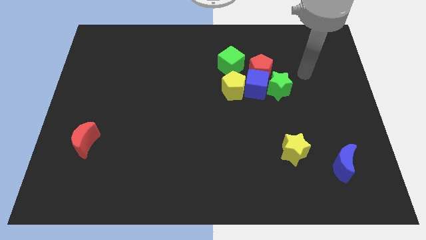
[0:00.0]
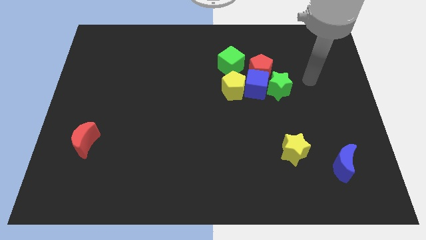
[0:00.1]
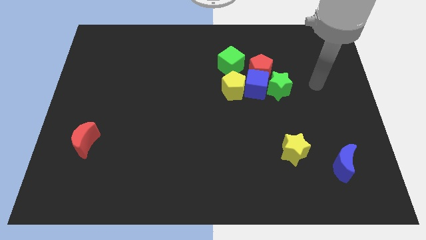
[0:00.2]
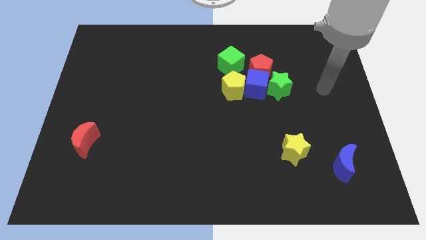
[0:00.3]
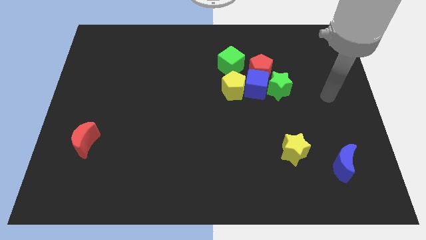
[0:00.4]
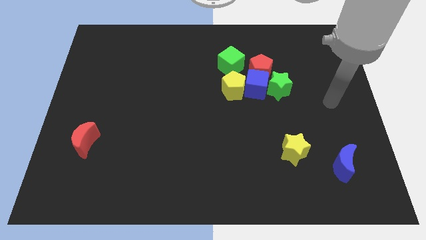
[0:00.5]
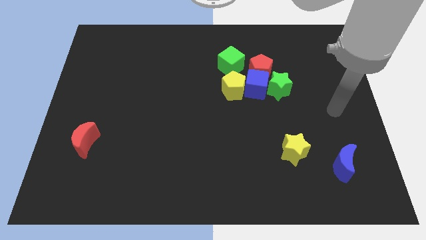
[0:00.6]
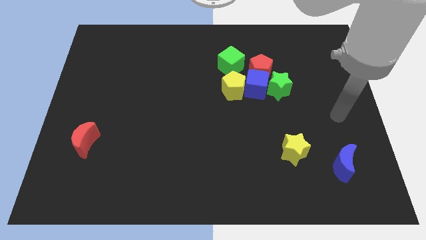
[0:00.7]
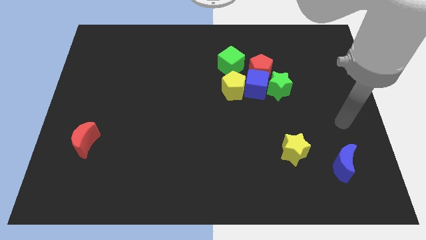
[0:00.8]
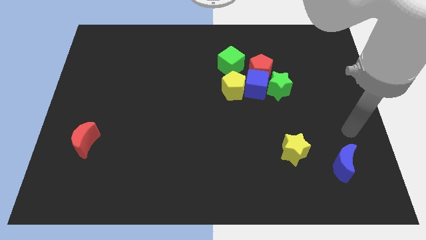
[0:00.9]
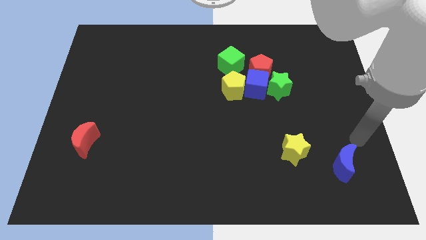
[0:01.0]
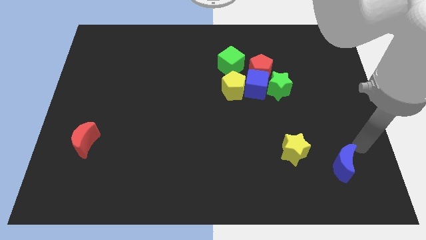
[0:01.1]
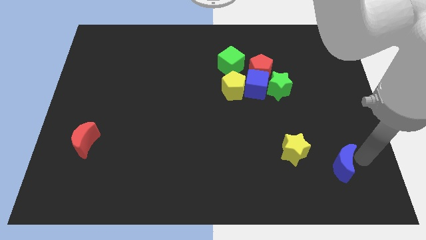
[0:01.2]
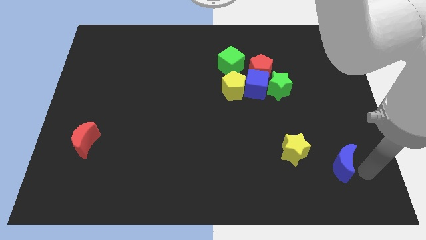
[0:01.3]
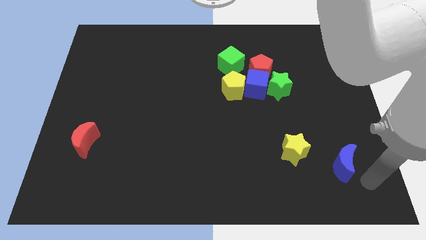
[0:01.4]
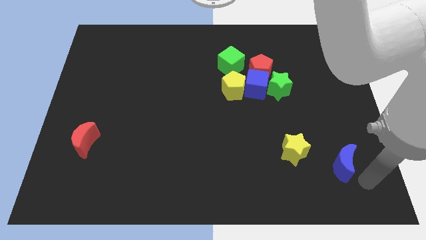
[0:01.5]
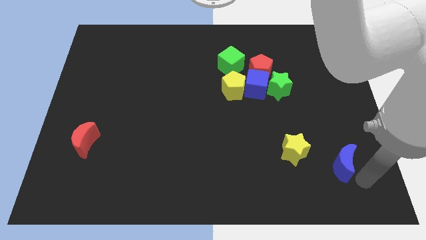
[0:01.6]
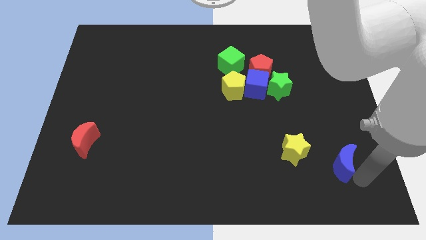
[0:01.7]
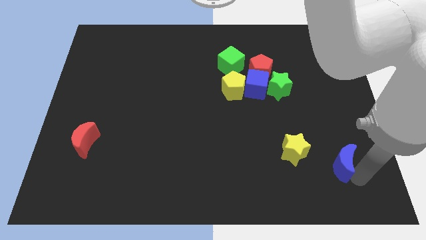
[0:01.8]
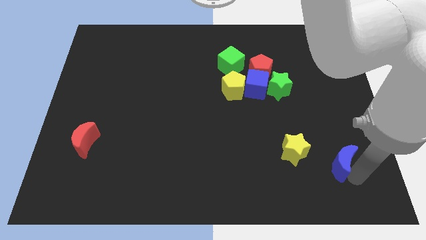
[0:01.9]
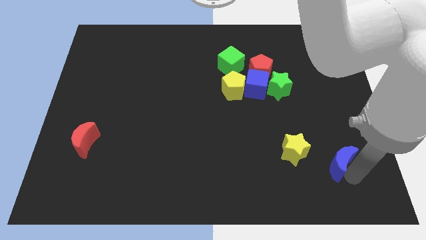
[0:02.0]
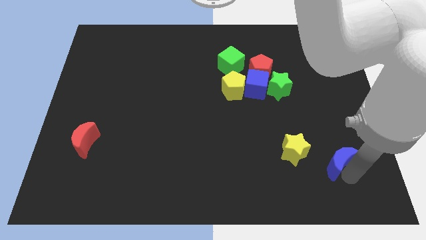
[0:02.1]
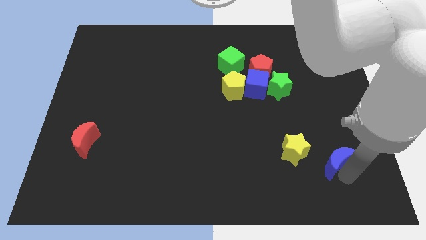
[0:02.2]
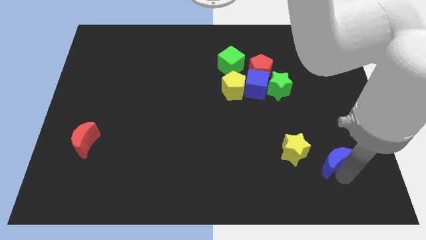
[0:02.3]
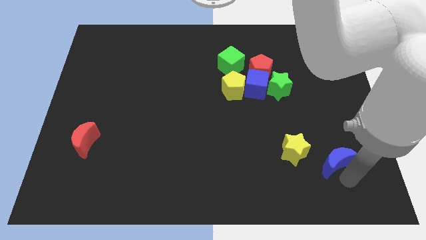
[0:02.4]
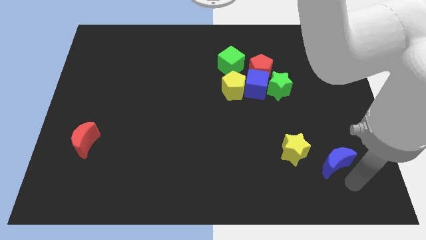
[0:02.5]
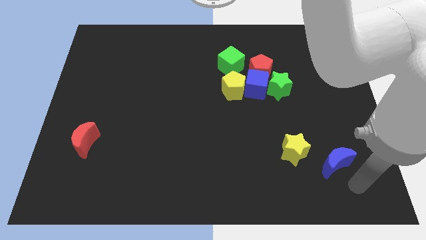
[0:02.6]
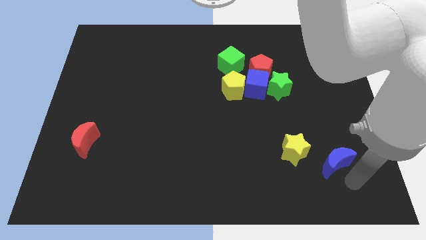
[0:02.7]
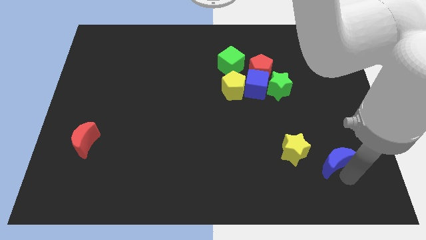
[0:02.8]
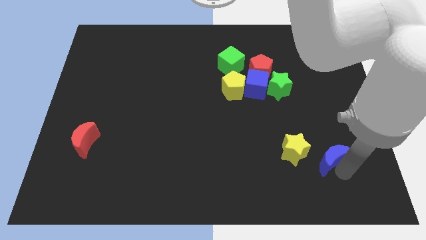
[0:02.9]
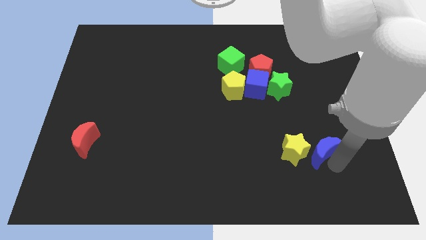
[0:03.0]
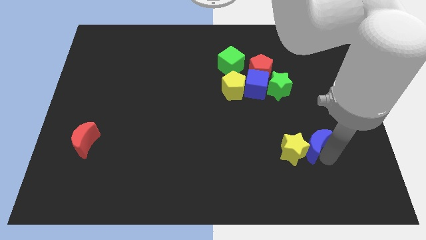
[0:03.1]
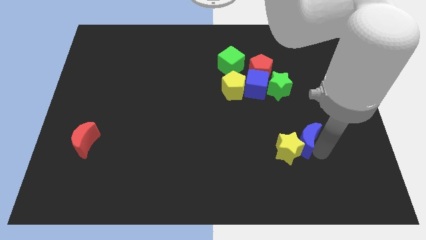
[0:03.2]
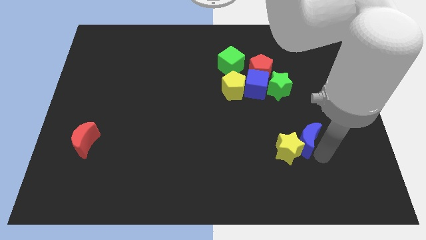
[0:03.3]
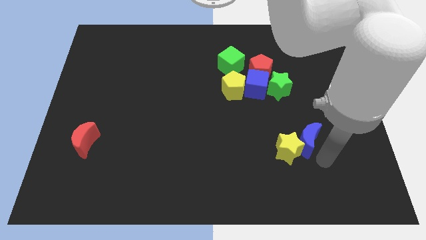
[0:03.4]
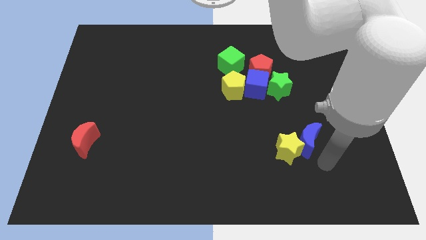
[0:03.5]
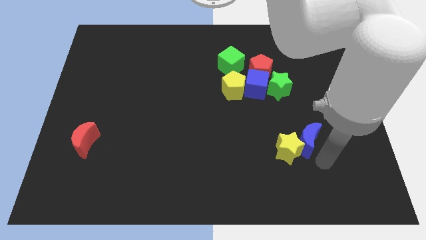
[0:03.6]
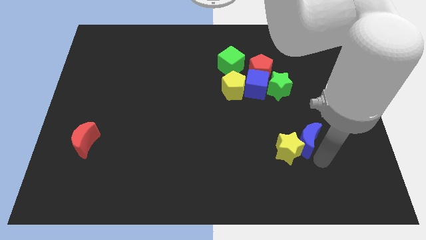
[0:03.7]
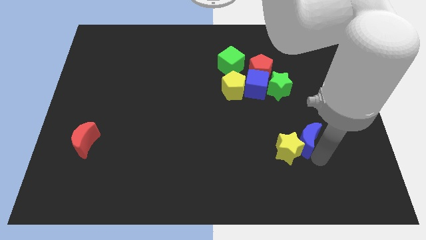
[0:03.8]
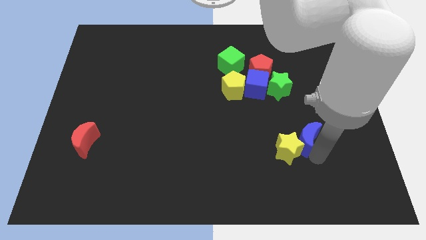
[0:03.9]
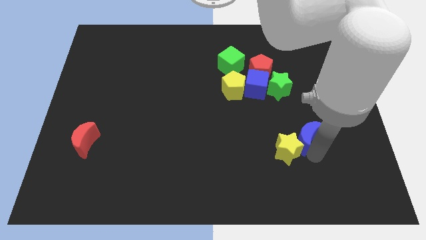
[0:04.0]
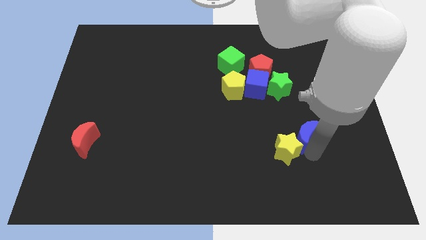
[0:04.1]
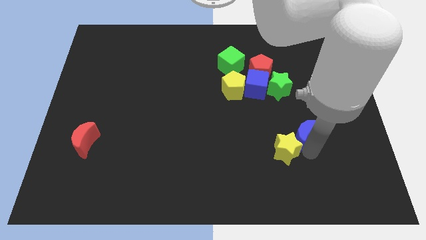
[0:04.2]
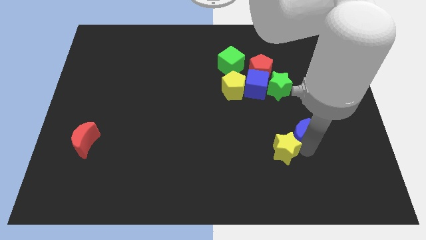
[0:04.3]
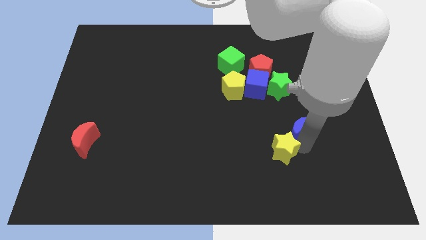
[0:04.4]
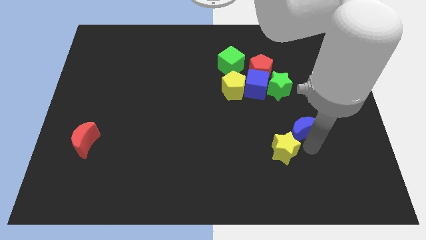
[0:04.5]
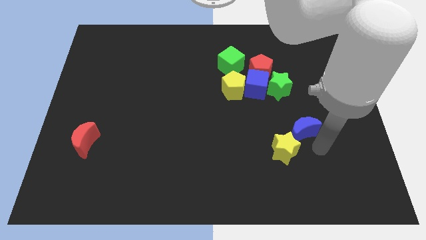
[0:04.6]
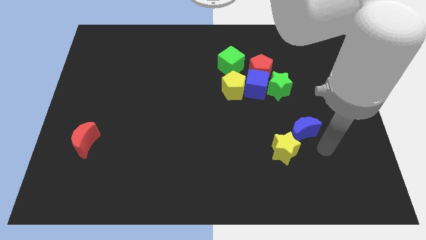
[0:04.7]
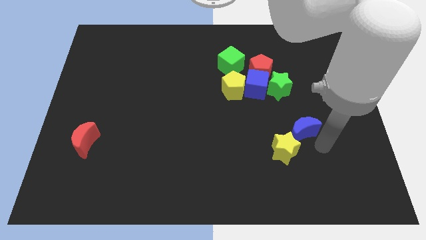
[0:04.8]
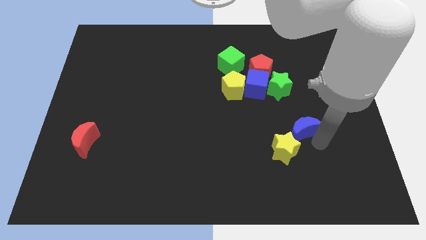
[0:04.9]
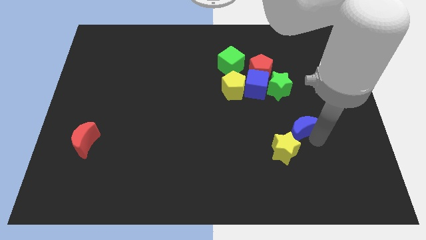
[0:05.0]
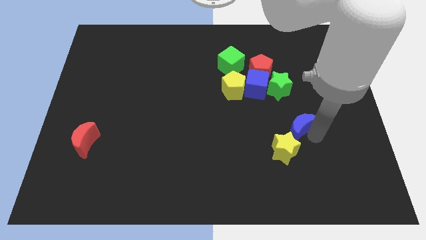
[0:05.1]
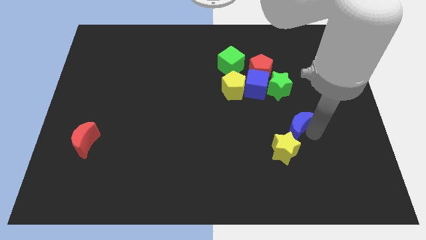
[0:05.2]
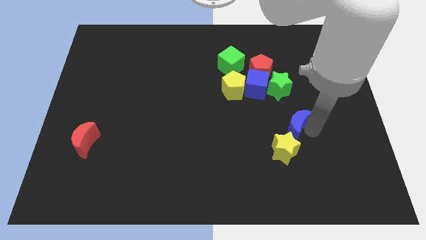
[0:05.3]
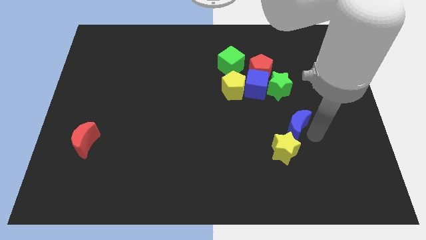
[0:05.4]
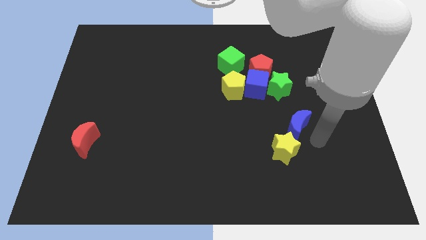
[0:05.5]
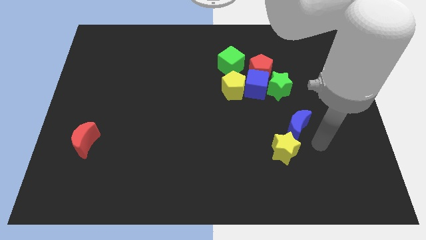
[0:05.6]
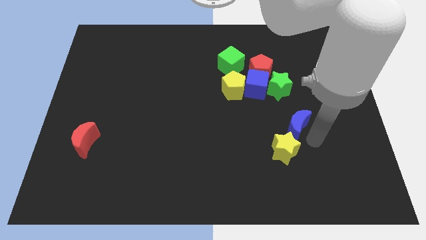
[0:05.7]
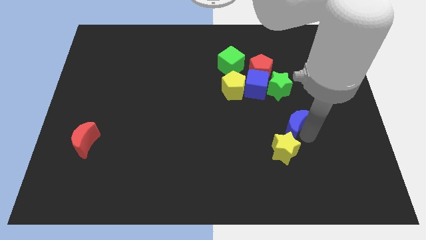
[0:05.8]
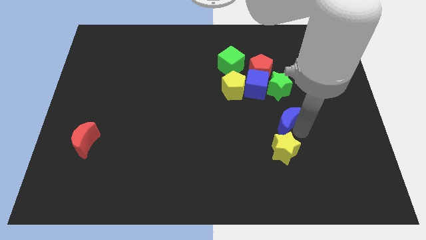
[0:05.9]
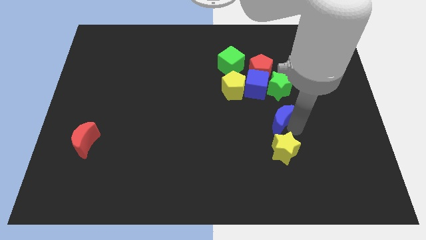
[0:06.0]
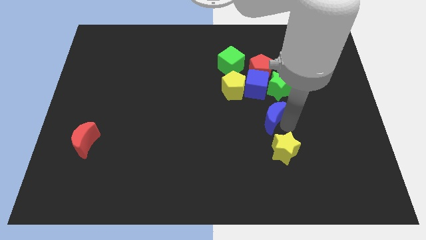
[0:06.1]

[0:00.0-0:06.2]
push the blue moon to the bottom right of the yellow pentagon

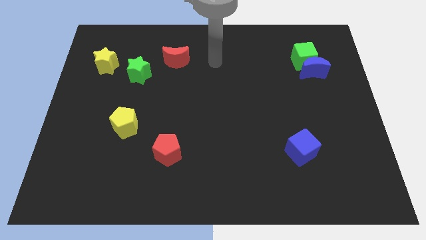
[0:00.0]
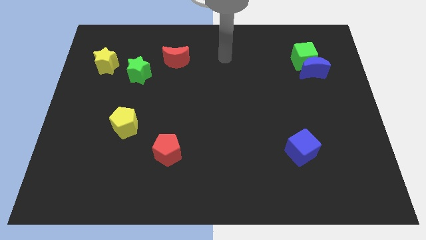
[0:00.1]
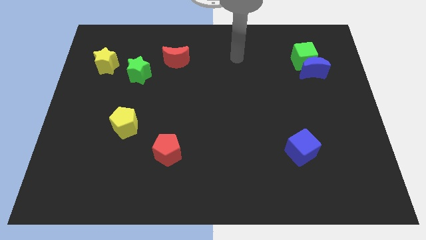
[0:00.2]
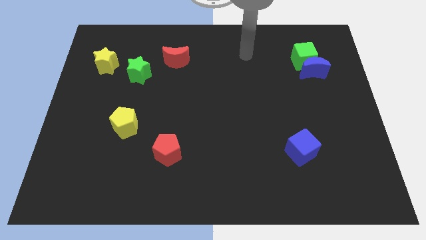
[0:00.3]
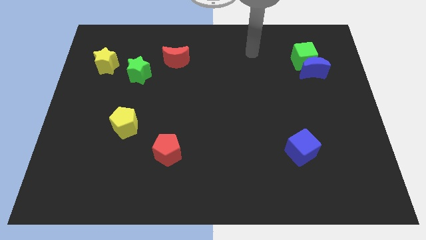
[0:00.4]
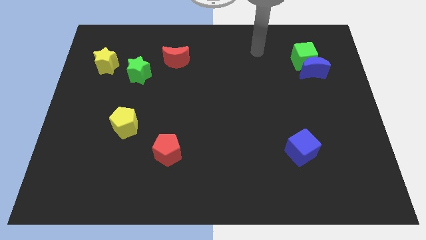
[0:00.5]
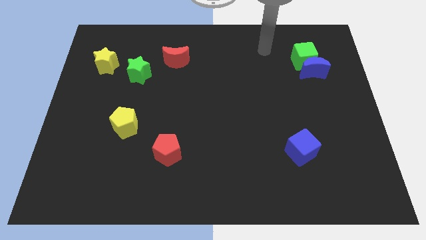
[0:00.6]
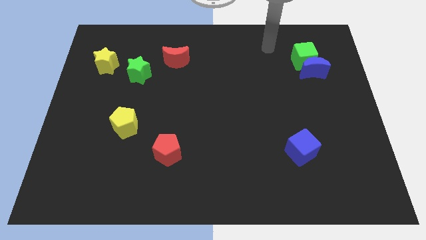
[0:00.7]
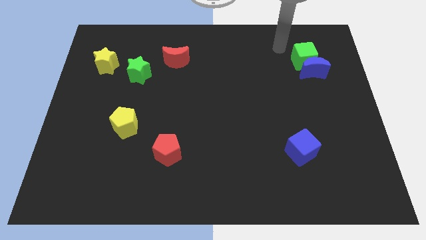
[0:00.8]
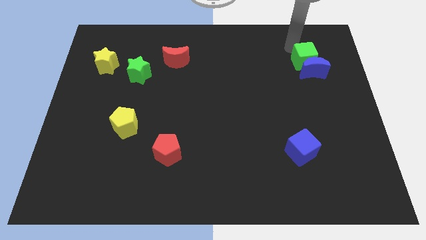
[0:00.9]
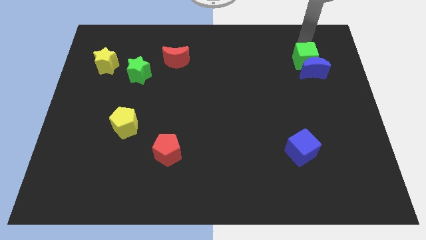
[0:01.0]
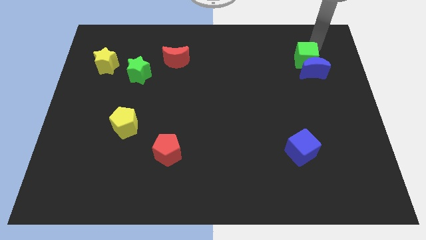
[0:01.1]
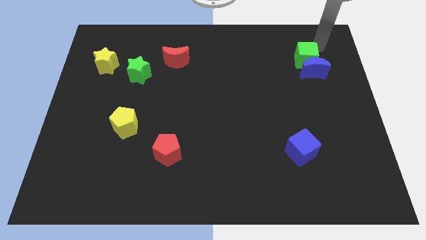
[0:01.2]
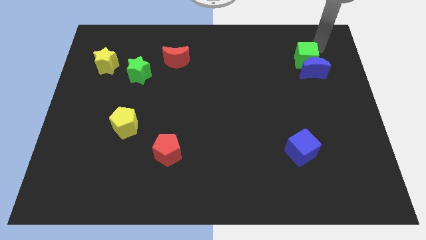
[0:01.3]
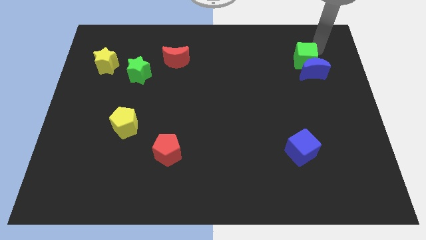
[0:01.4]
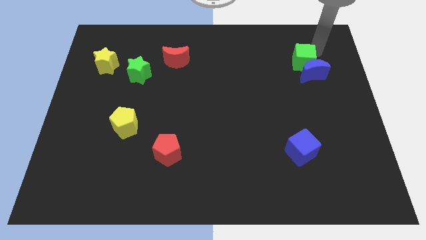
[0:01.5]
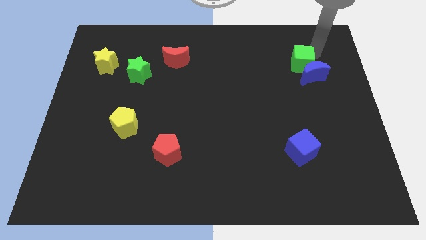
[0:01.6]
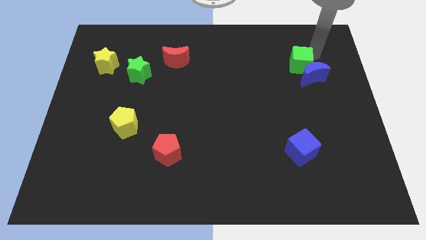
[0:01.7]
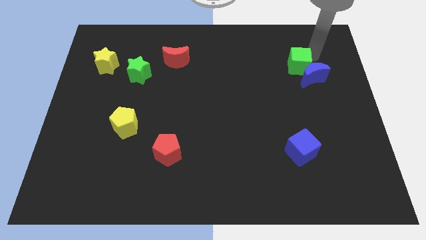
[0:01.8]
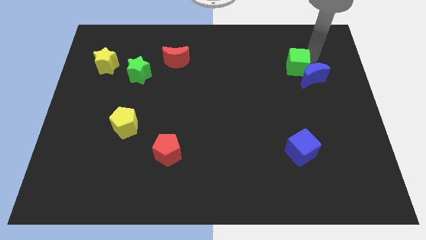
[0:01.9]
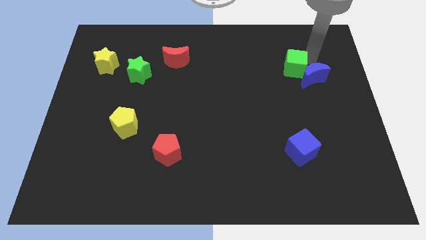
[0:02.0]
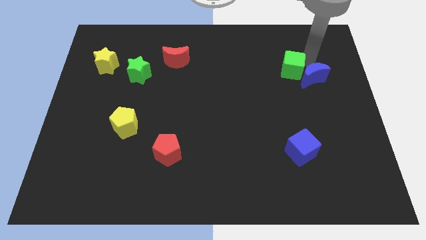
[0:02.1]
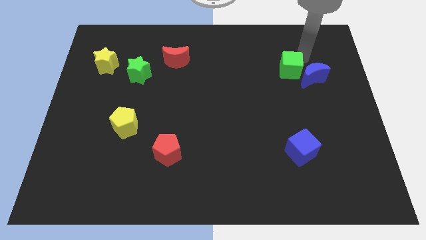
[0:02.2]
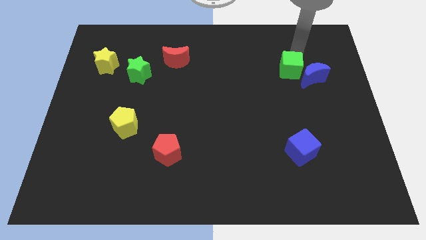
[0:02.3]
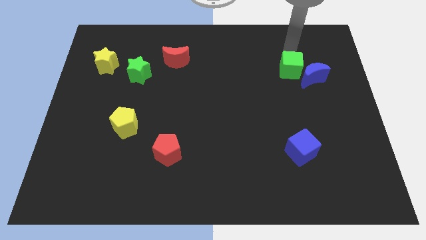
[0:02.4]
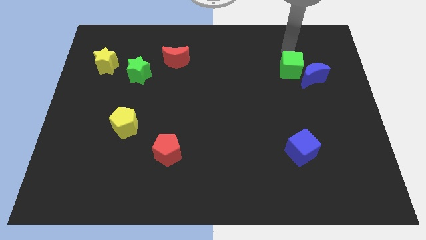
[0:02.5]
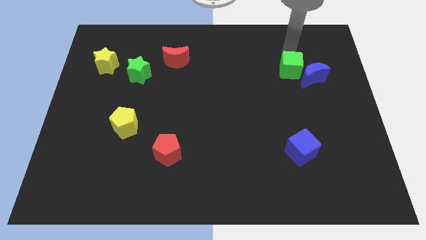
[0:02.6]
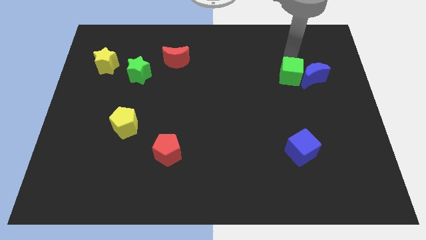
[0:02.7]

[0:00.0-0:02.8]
put the green cube to the bottom left side of the blue moon
